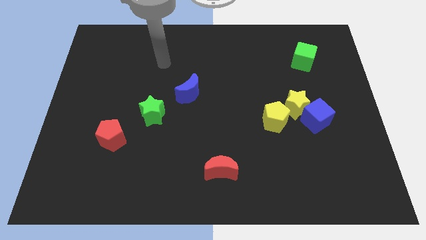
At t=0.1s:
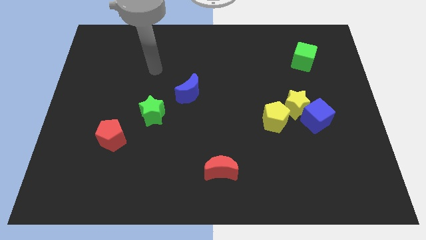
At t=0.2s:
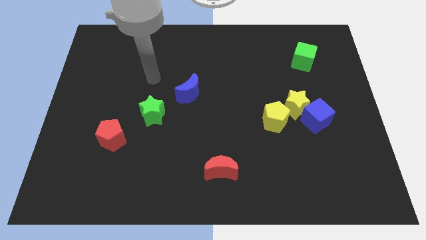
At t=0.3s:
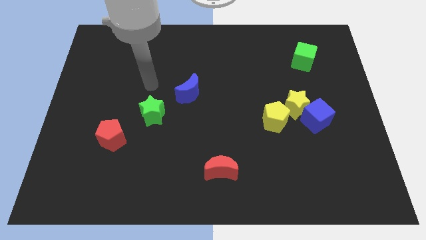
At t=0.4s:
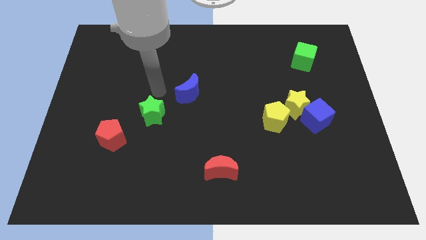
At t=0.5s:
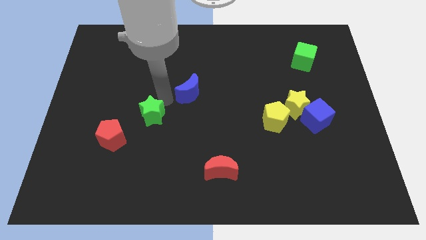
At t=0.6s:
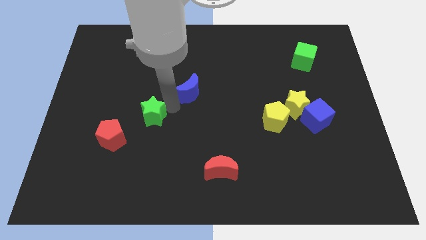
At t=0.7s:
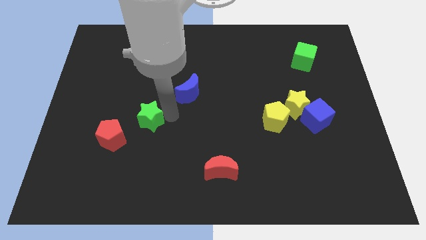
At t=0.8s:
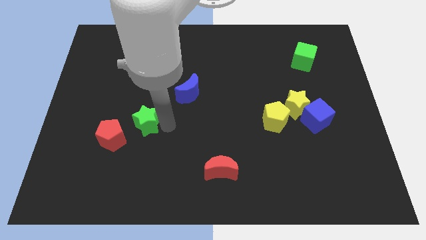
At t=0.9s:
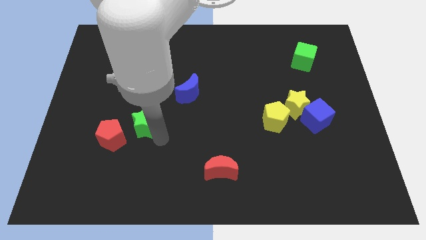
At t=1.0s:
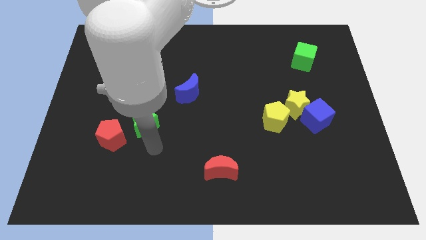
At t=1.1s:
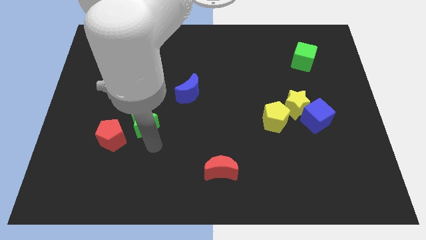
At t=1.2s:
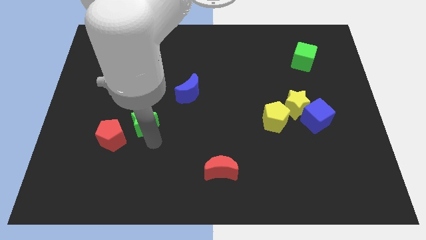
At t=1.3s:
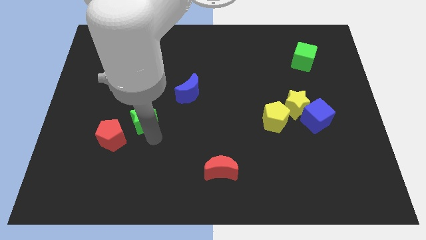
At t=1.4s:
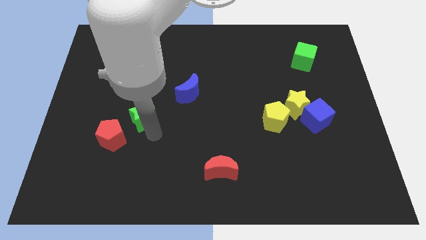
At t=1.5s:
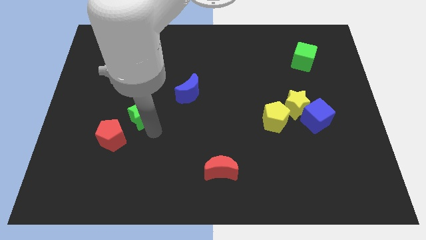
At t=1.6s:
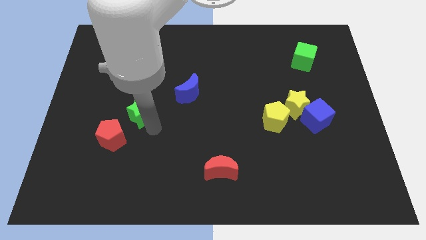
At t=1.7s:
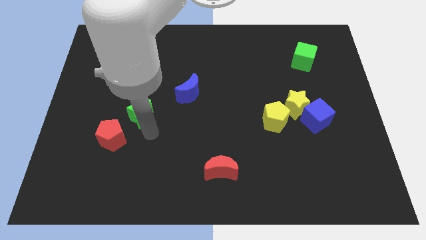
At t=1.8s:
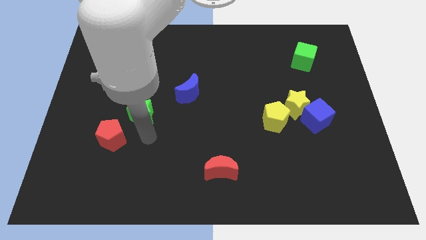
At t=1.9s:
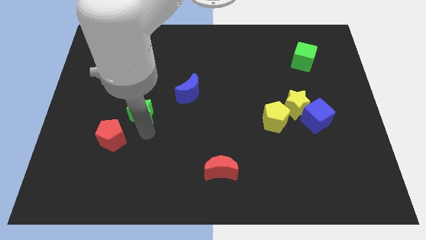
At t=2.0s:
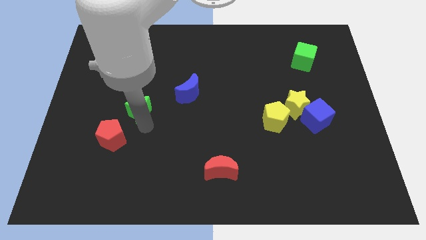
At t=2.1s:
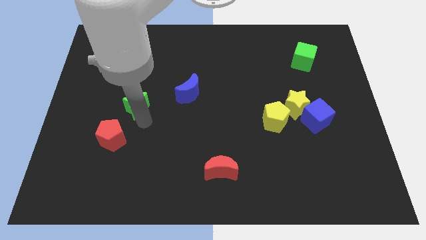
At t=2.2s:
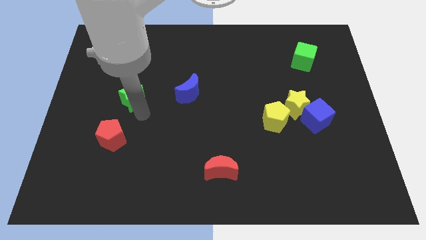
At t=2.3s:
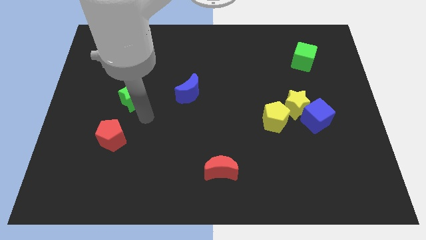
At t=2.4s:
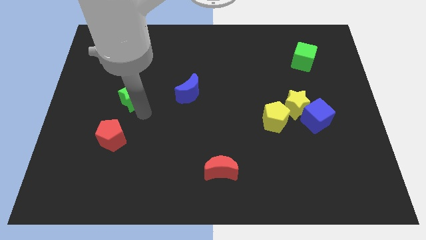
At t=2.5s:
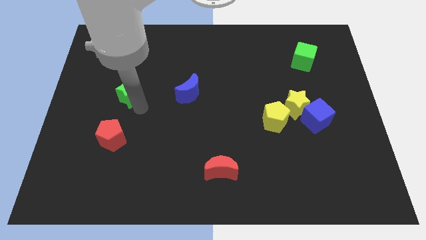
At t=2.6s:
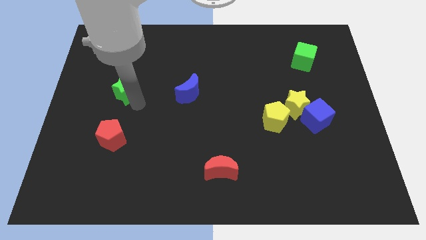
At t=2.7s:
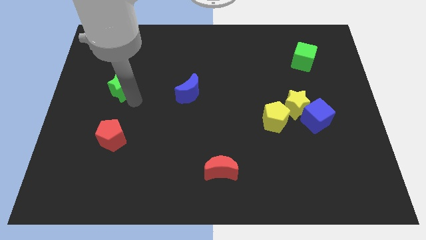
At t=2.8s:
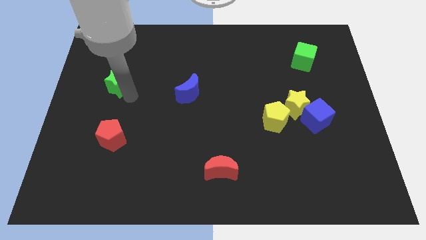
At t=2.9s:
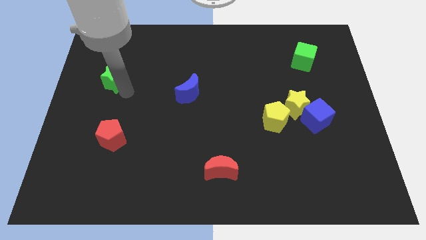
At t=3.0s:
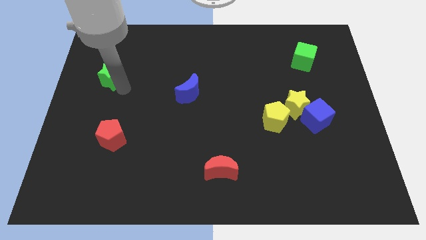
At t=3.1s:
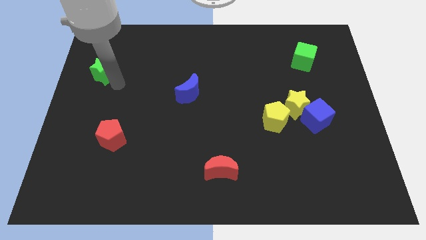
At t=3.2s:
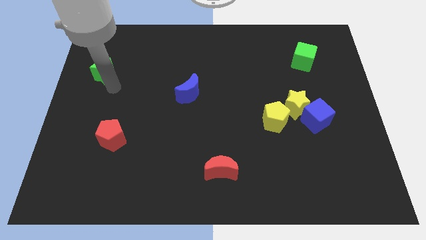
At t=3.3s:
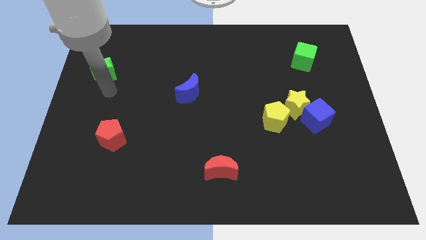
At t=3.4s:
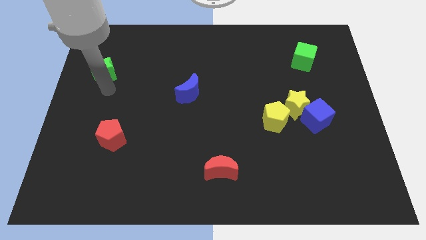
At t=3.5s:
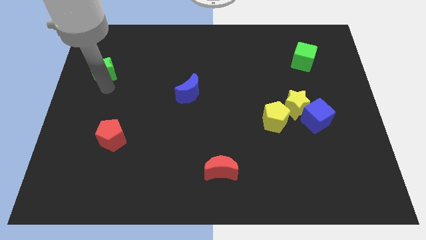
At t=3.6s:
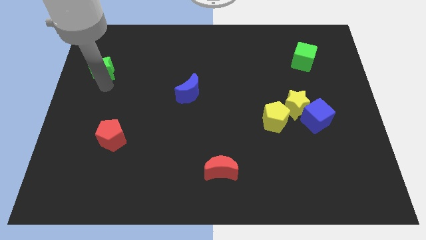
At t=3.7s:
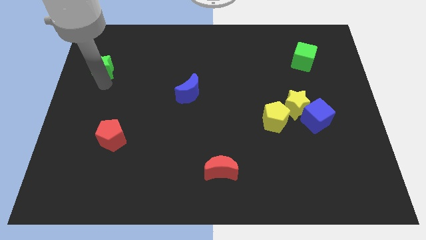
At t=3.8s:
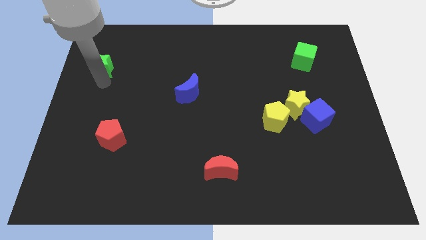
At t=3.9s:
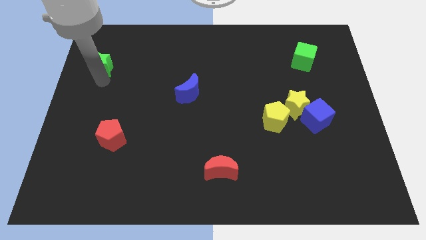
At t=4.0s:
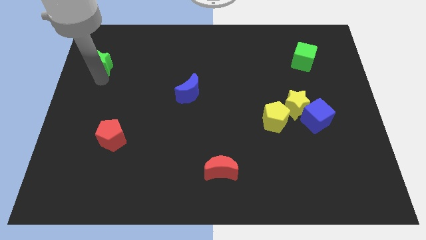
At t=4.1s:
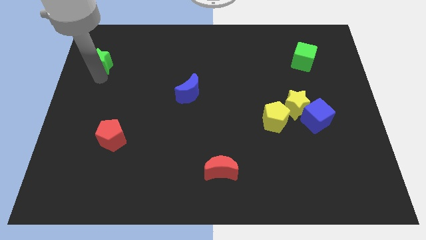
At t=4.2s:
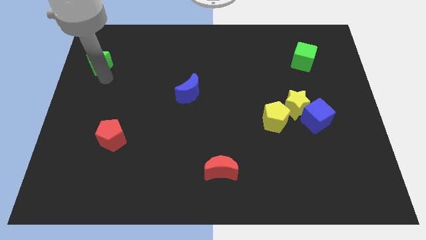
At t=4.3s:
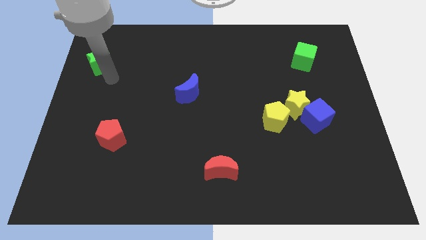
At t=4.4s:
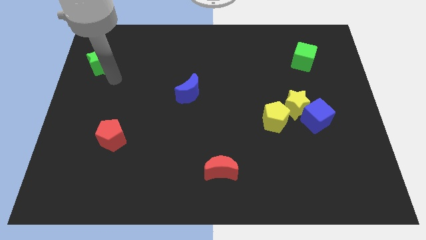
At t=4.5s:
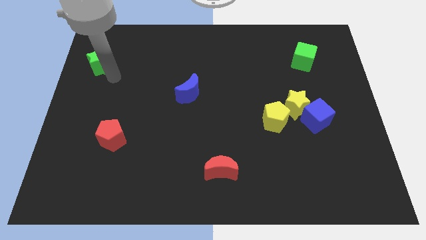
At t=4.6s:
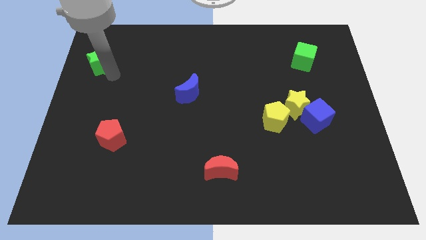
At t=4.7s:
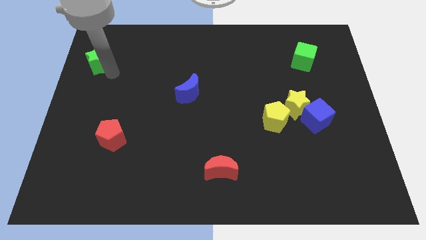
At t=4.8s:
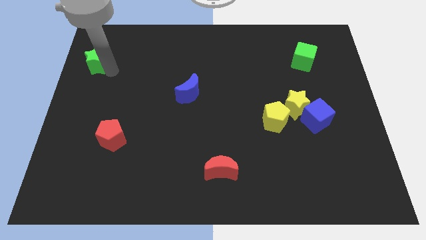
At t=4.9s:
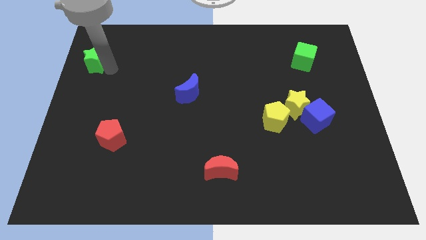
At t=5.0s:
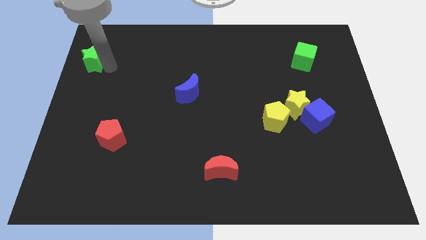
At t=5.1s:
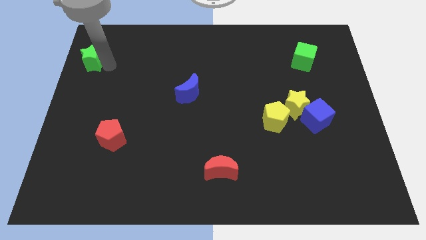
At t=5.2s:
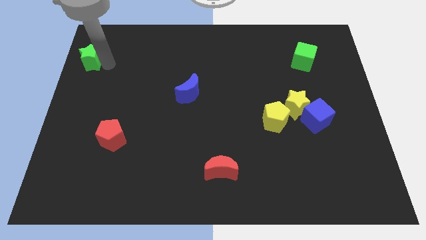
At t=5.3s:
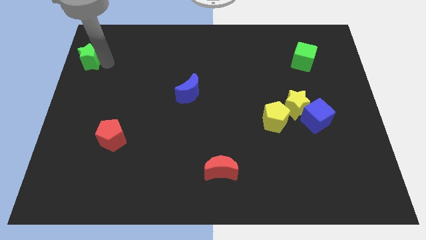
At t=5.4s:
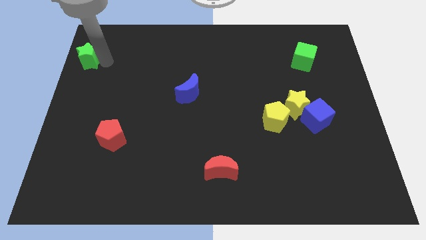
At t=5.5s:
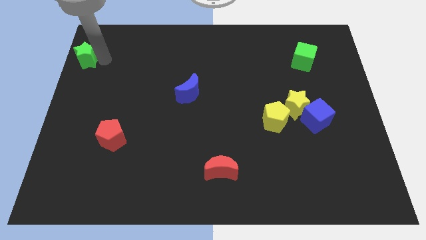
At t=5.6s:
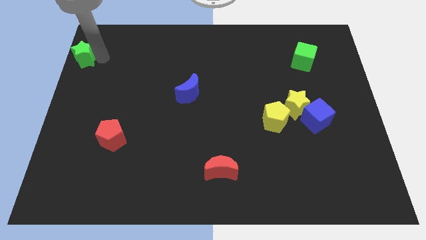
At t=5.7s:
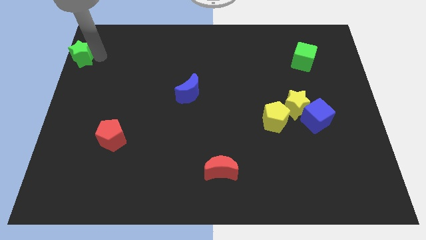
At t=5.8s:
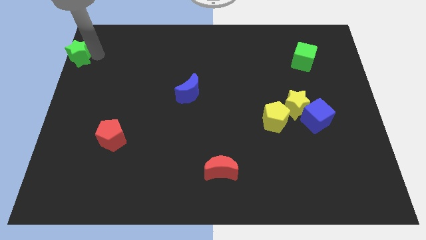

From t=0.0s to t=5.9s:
put the green star to the top left

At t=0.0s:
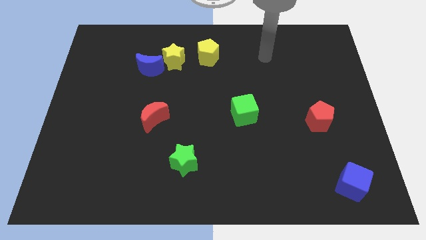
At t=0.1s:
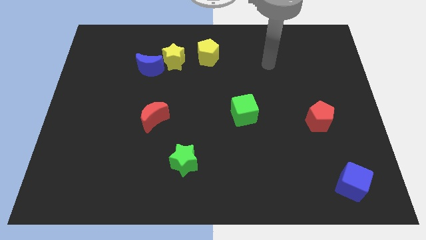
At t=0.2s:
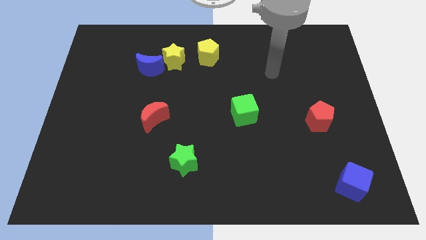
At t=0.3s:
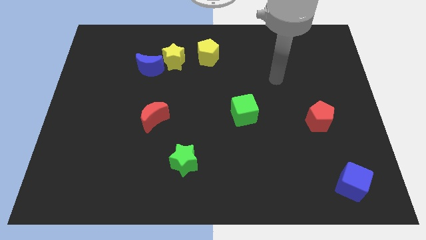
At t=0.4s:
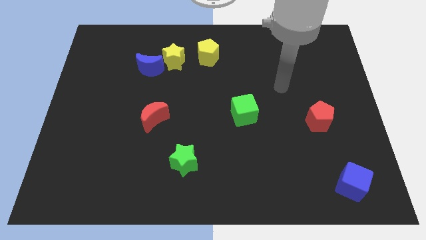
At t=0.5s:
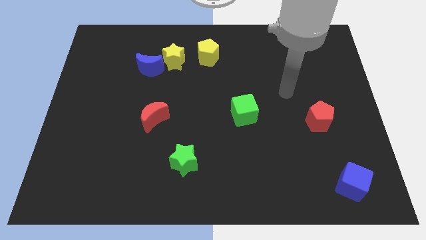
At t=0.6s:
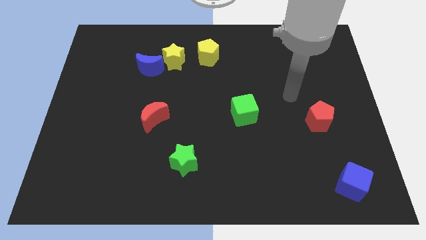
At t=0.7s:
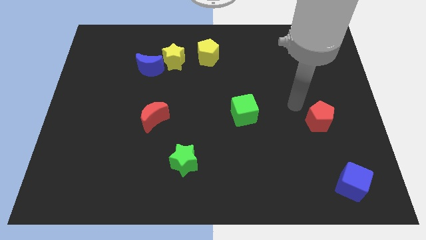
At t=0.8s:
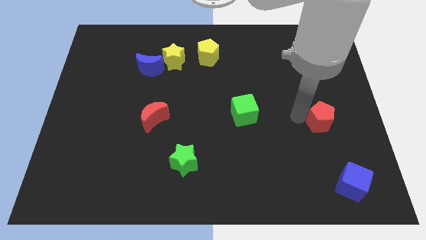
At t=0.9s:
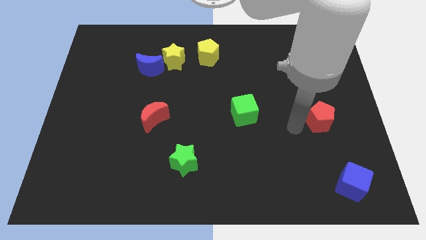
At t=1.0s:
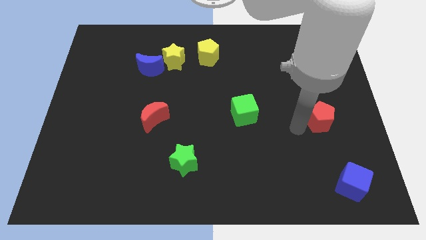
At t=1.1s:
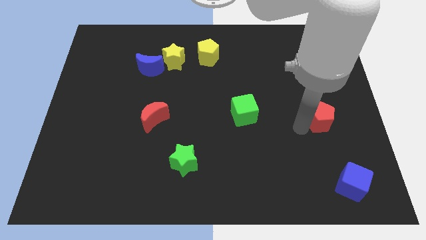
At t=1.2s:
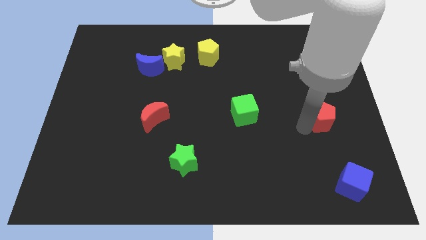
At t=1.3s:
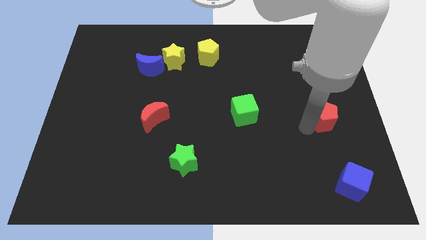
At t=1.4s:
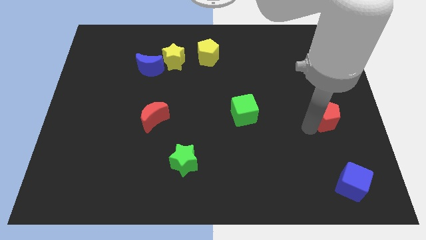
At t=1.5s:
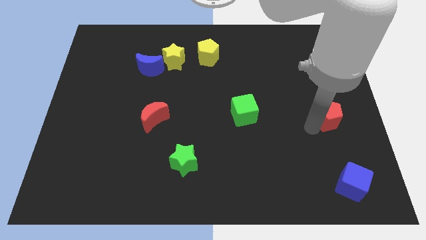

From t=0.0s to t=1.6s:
slide the red pentagon to the right side
